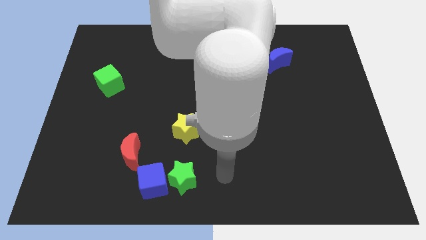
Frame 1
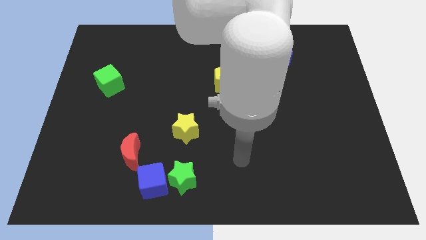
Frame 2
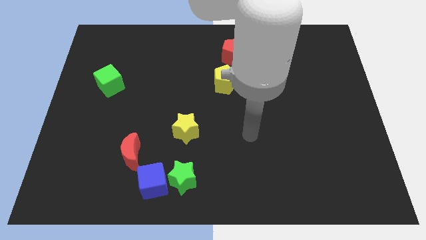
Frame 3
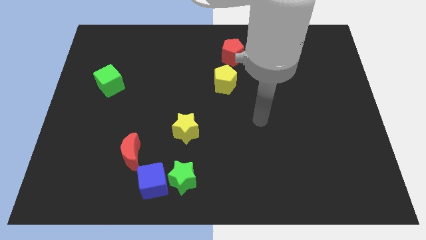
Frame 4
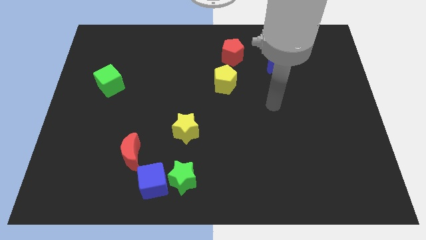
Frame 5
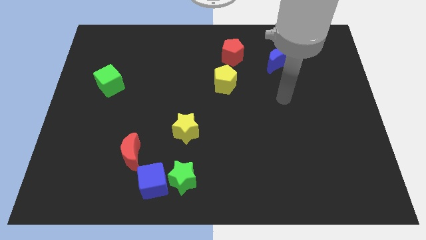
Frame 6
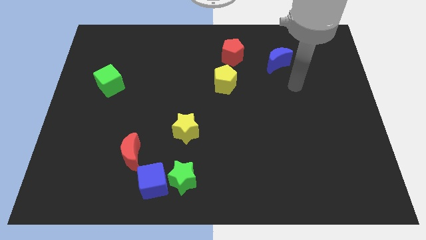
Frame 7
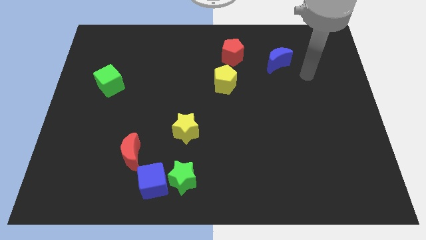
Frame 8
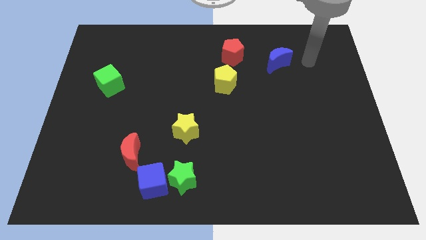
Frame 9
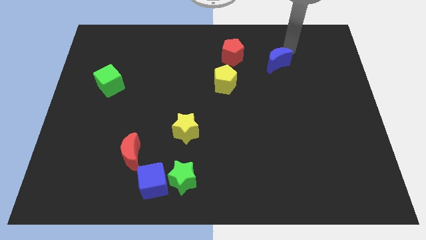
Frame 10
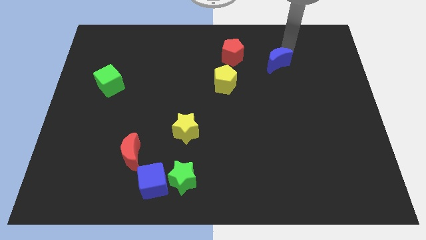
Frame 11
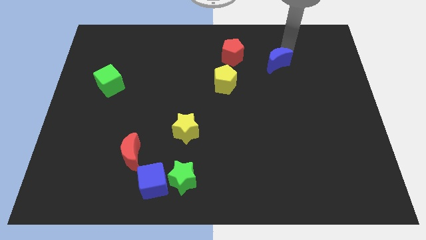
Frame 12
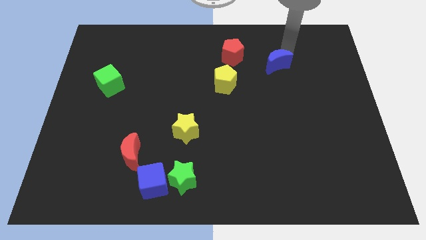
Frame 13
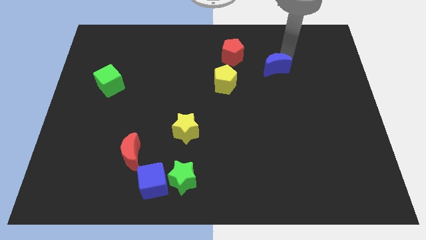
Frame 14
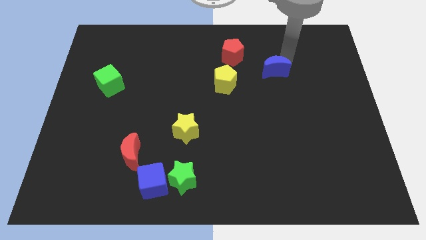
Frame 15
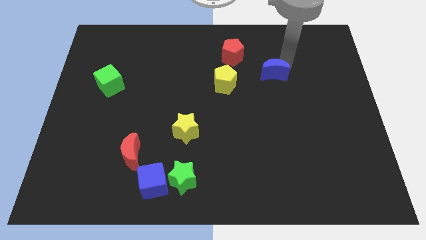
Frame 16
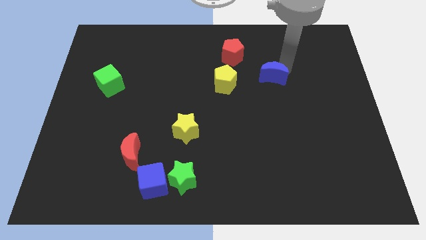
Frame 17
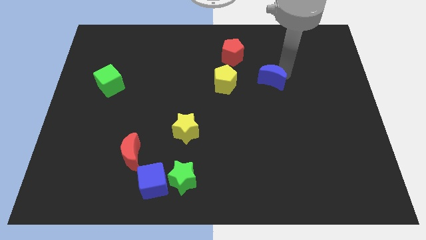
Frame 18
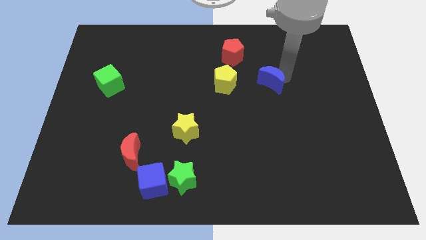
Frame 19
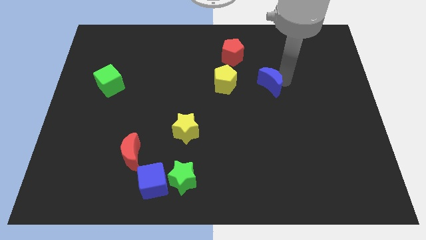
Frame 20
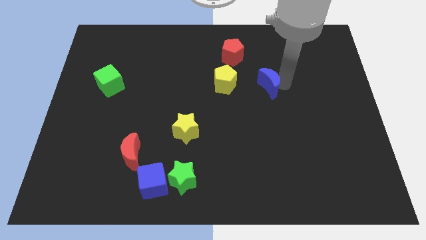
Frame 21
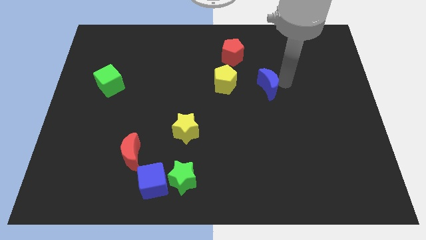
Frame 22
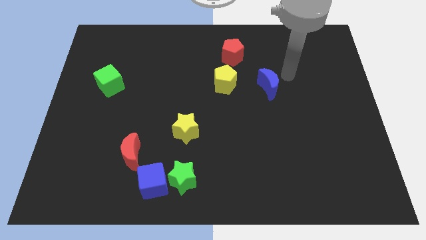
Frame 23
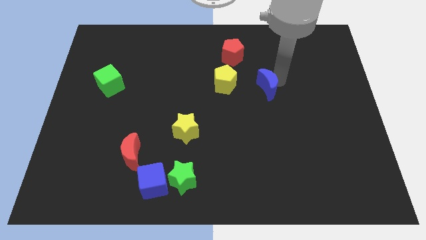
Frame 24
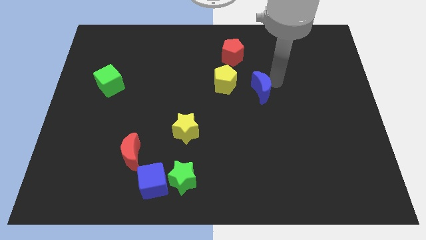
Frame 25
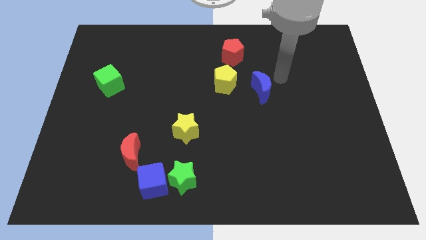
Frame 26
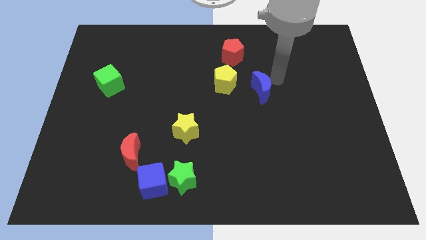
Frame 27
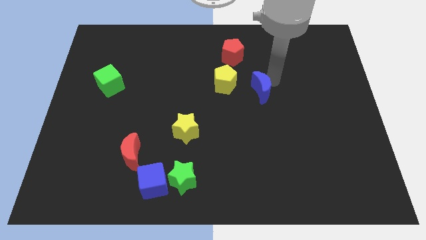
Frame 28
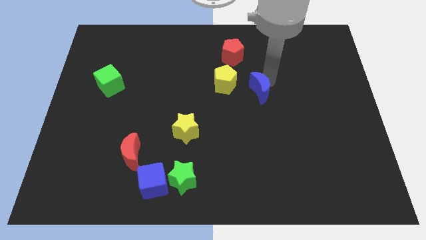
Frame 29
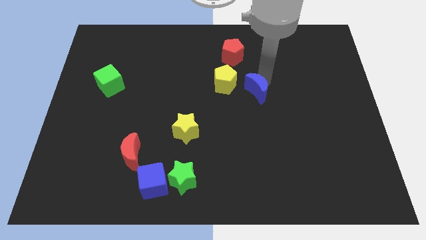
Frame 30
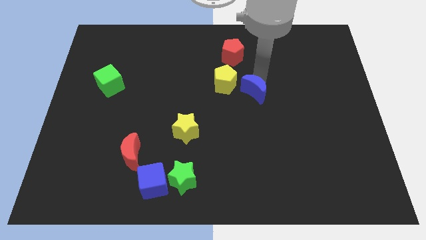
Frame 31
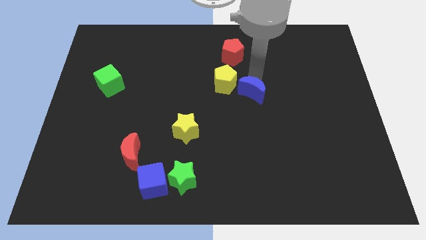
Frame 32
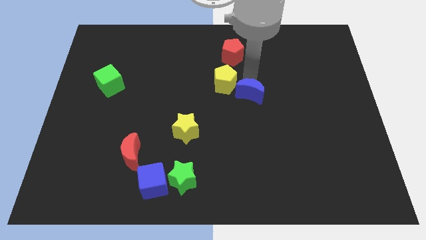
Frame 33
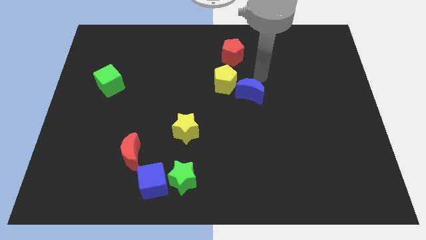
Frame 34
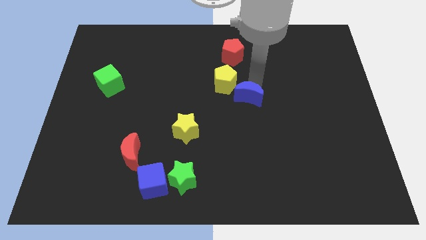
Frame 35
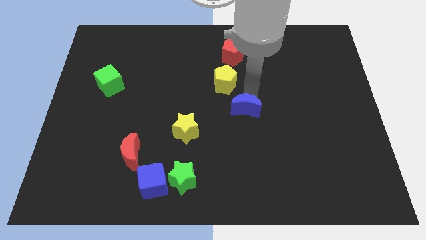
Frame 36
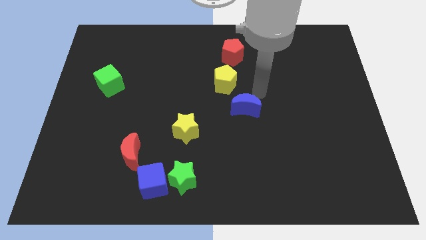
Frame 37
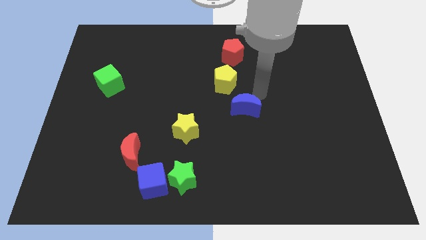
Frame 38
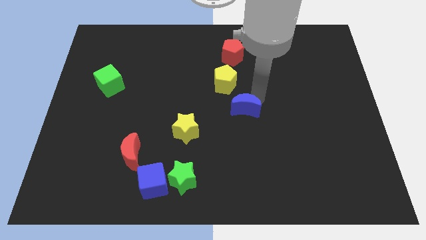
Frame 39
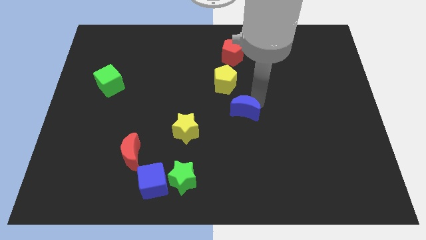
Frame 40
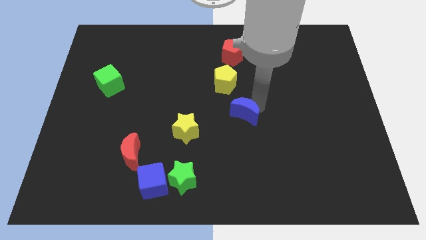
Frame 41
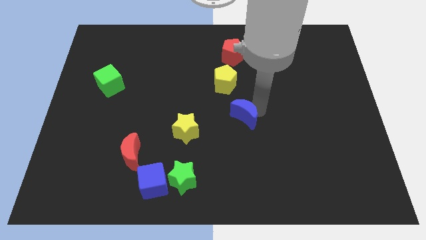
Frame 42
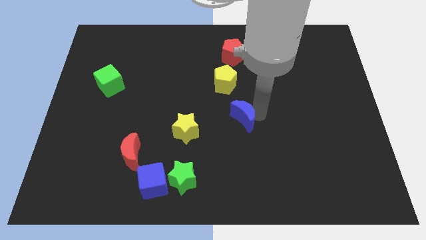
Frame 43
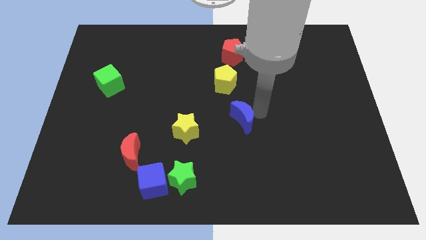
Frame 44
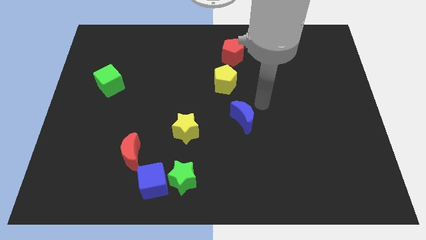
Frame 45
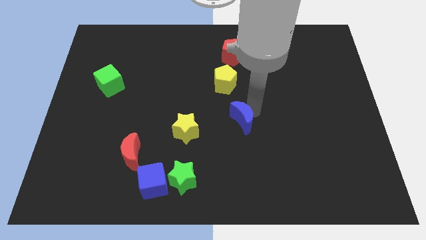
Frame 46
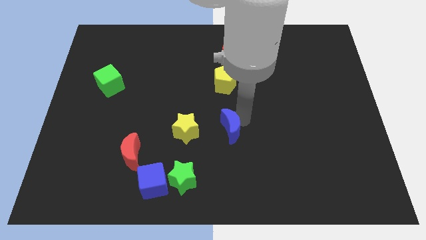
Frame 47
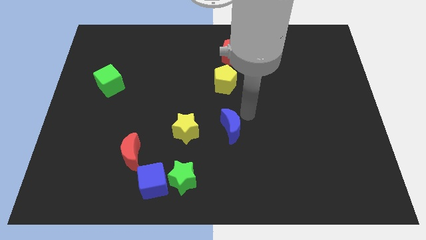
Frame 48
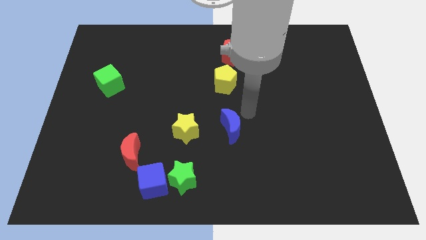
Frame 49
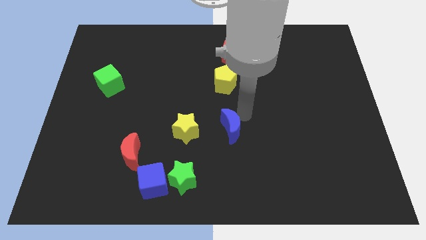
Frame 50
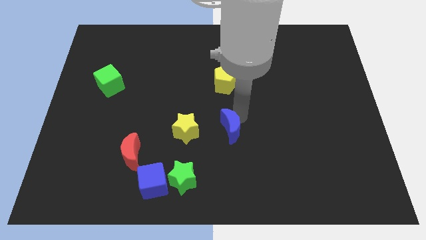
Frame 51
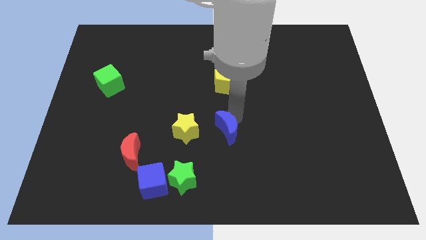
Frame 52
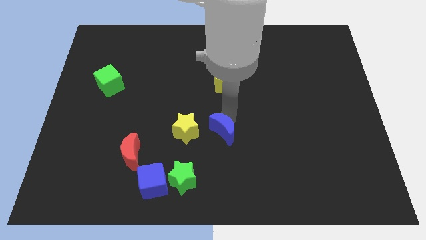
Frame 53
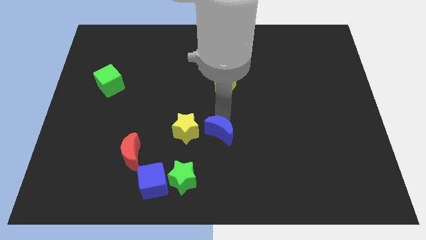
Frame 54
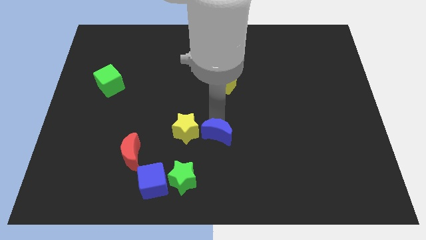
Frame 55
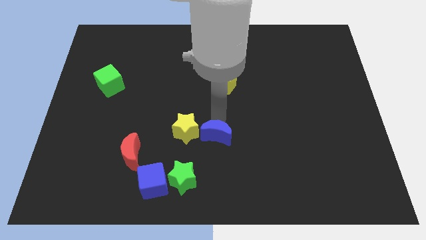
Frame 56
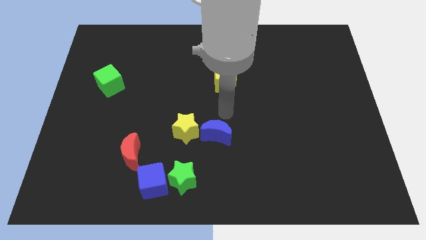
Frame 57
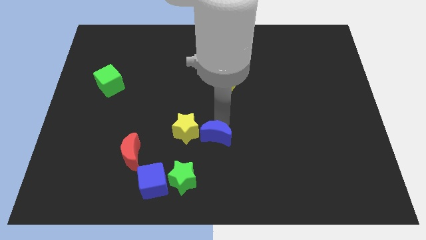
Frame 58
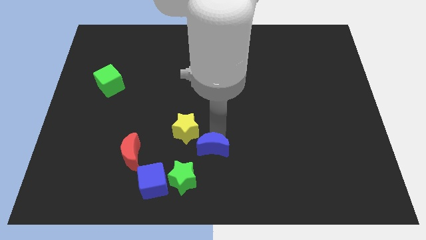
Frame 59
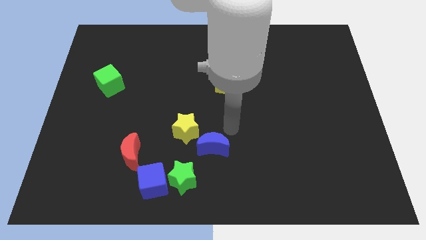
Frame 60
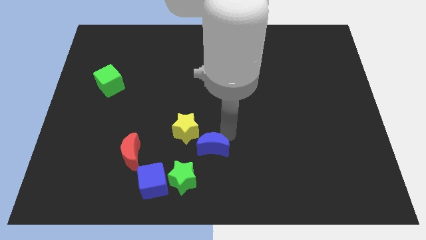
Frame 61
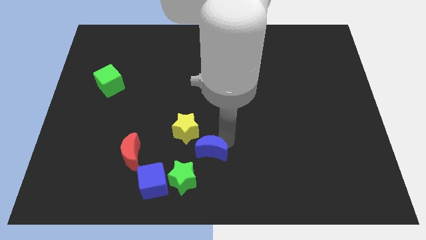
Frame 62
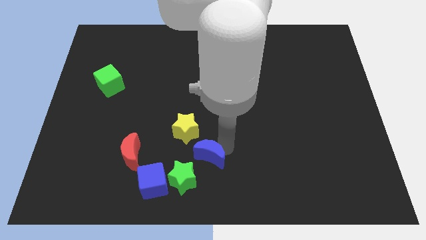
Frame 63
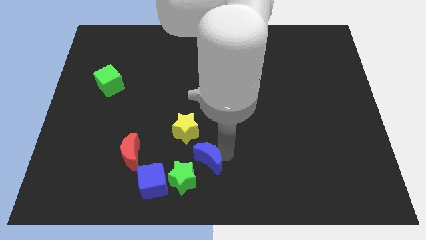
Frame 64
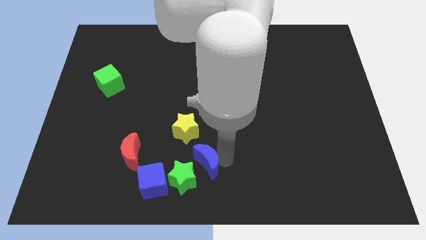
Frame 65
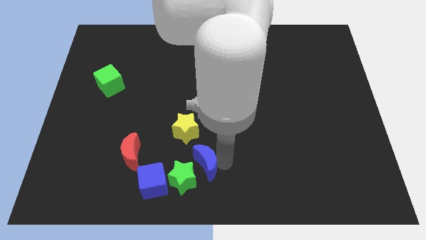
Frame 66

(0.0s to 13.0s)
push the blue moon close to the green star

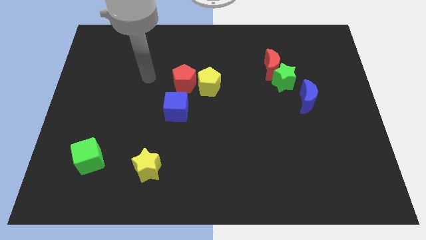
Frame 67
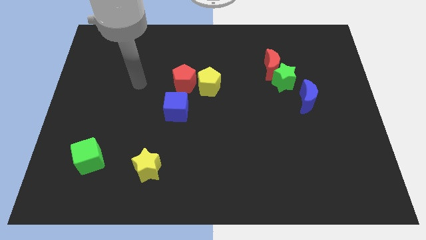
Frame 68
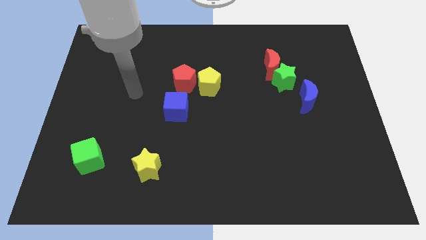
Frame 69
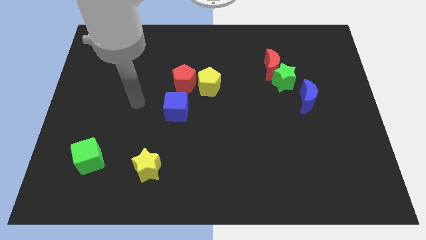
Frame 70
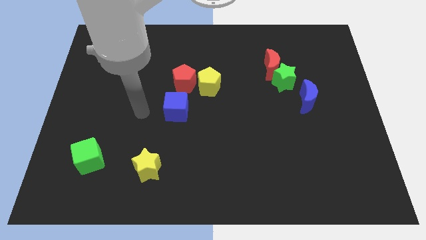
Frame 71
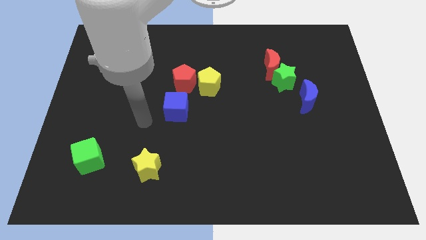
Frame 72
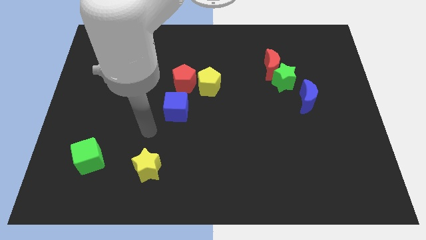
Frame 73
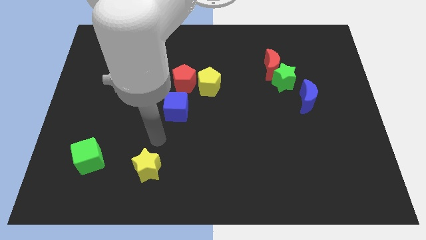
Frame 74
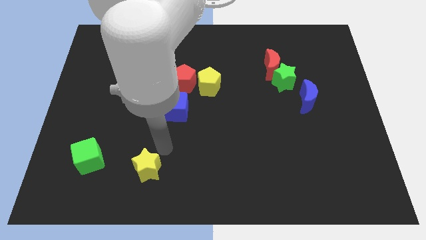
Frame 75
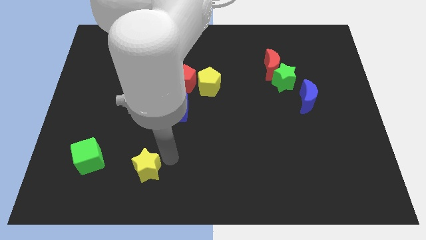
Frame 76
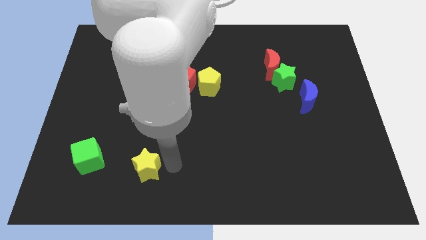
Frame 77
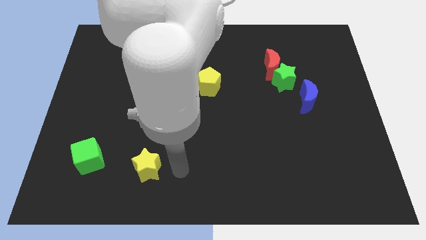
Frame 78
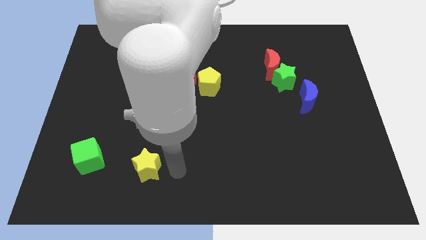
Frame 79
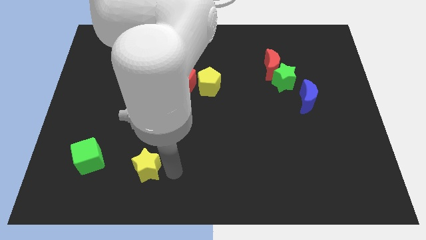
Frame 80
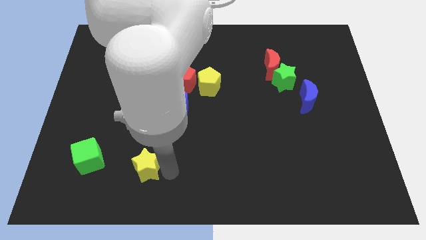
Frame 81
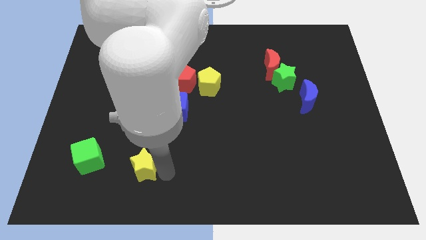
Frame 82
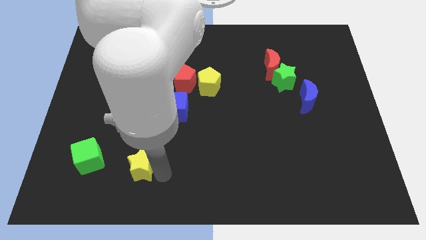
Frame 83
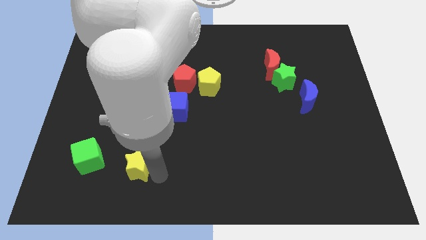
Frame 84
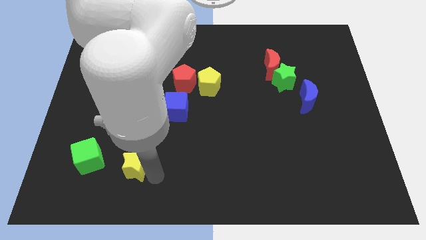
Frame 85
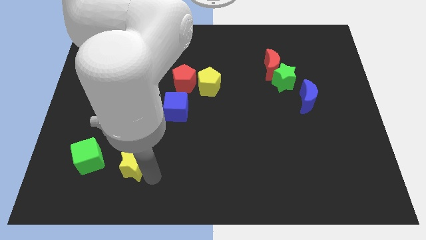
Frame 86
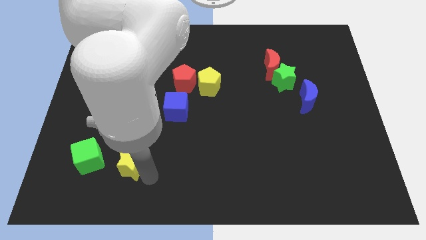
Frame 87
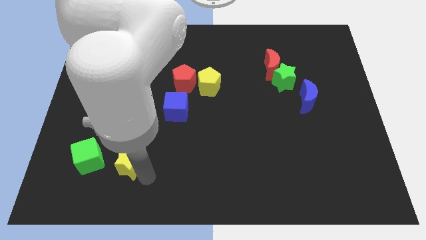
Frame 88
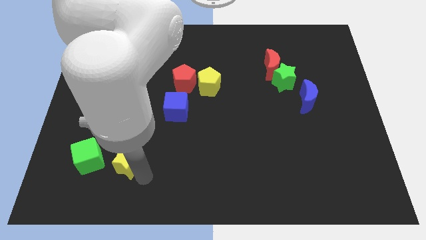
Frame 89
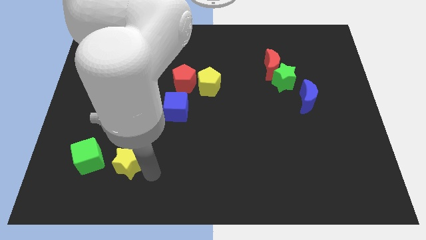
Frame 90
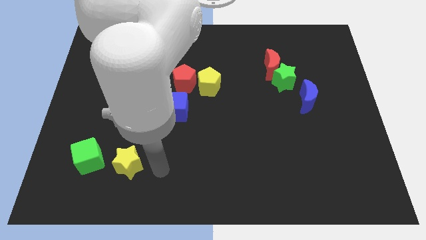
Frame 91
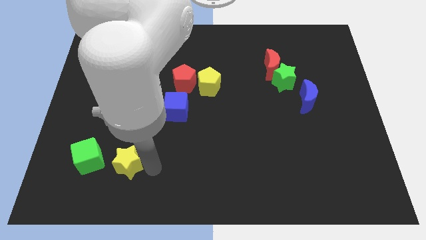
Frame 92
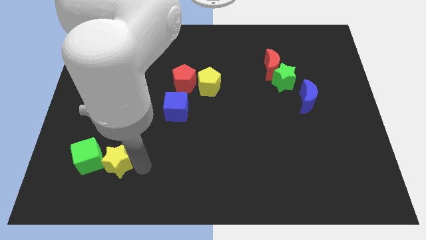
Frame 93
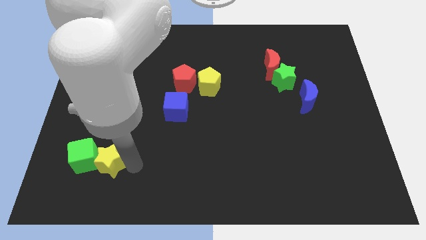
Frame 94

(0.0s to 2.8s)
move the yellow star towards the green cube
